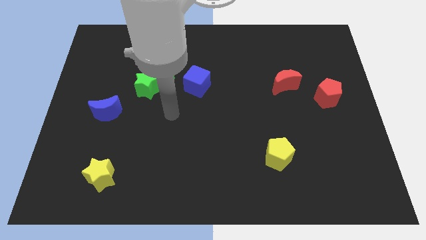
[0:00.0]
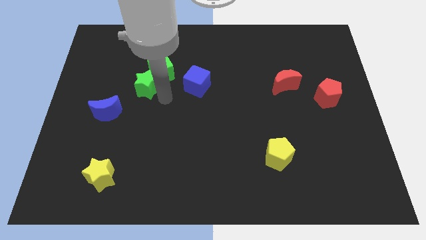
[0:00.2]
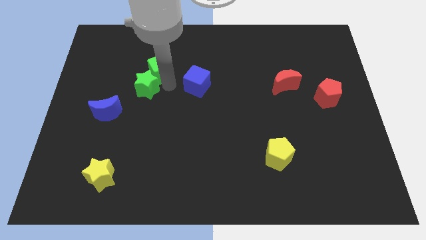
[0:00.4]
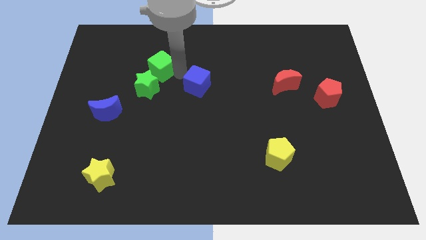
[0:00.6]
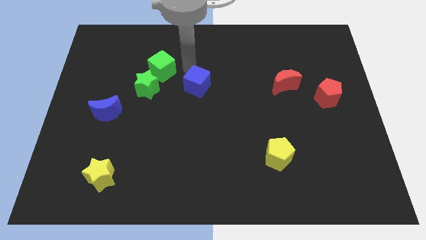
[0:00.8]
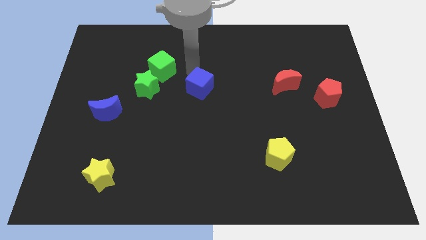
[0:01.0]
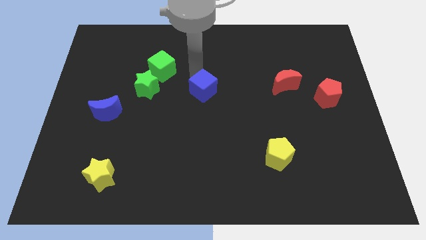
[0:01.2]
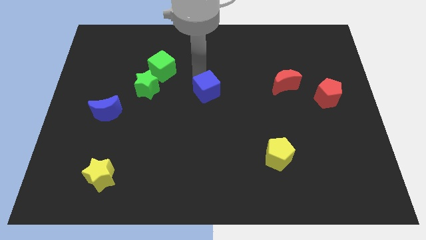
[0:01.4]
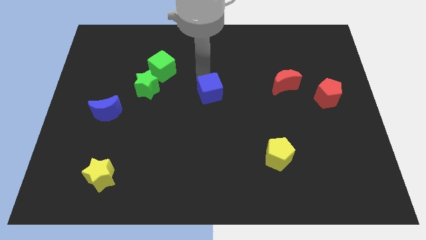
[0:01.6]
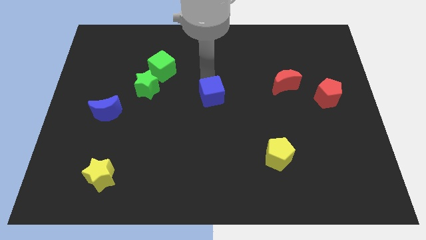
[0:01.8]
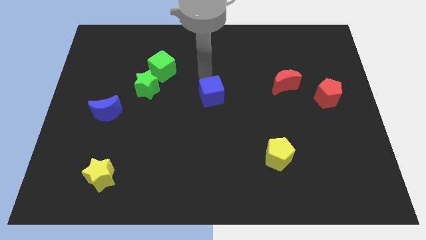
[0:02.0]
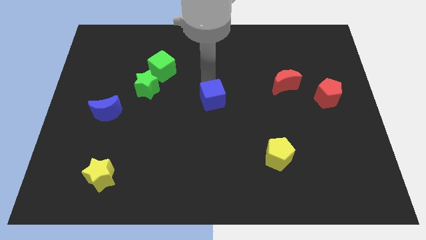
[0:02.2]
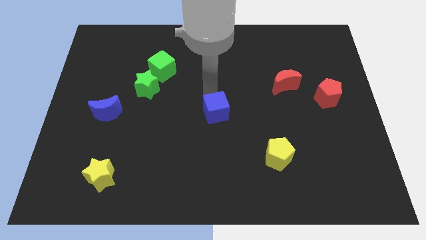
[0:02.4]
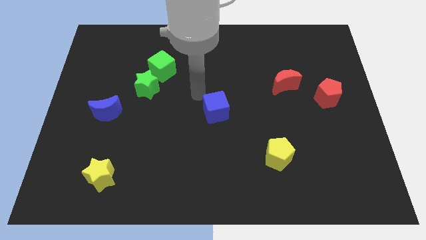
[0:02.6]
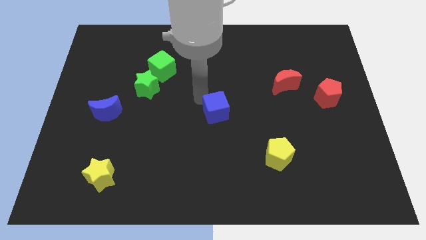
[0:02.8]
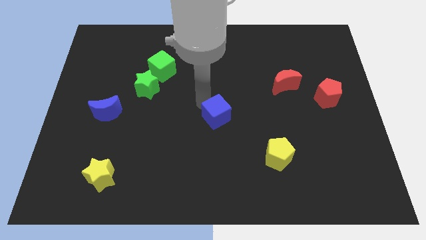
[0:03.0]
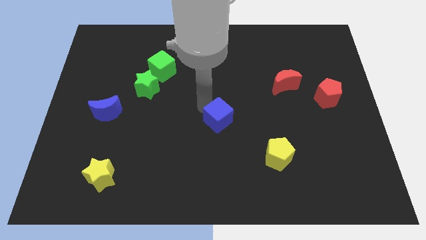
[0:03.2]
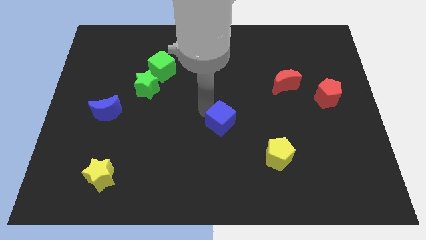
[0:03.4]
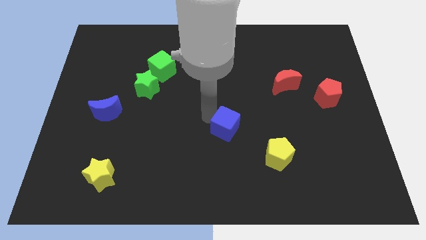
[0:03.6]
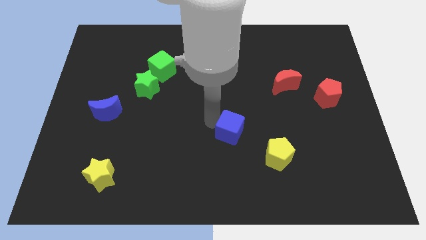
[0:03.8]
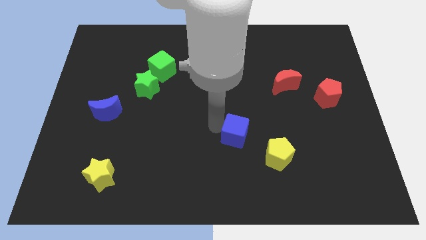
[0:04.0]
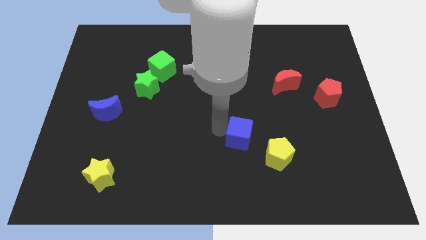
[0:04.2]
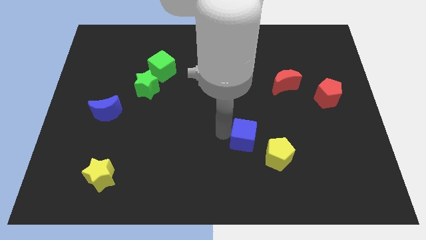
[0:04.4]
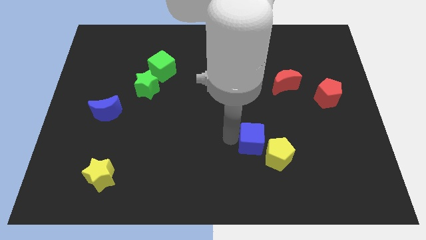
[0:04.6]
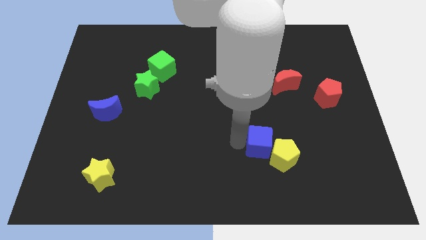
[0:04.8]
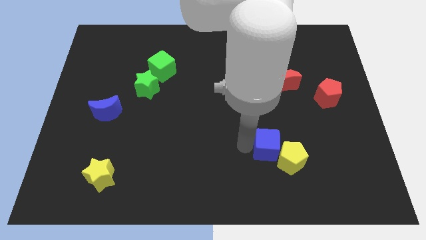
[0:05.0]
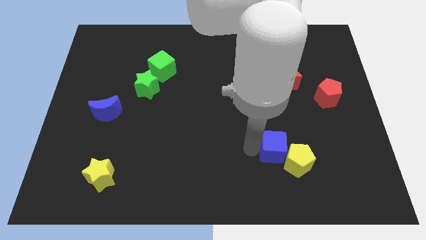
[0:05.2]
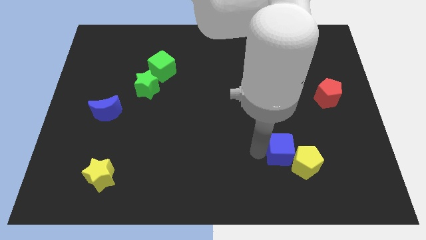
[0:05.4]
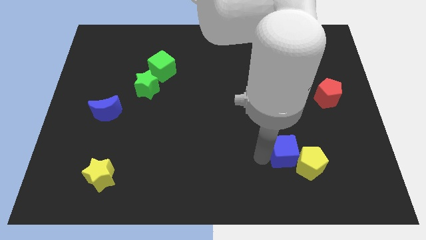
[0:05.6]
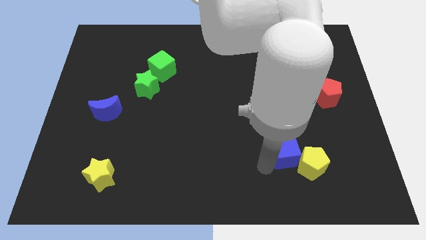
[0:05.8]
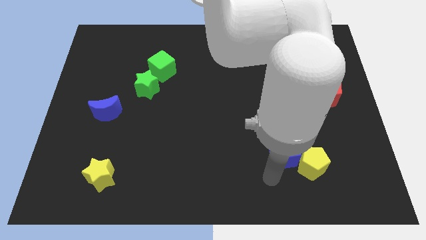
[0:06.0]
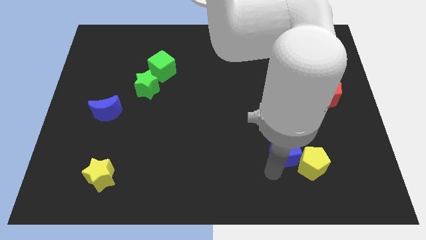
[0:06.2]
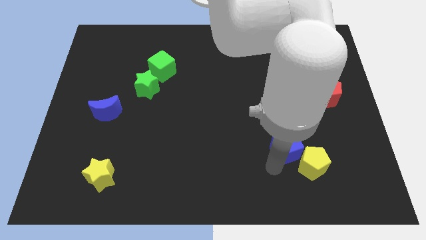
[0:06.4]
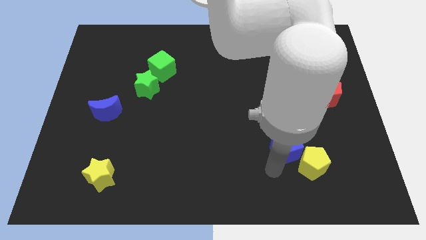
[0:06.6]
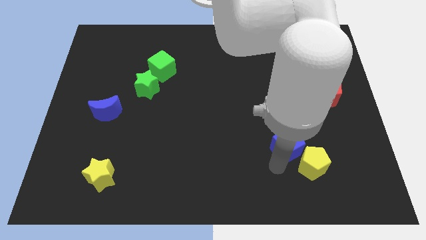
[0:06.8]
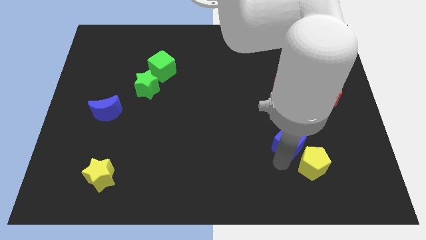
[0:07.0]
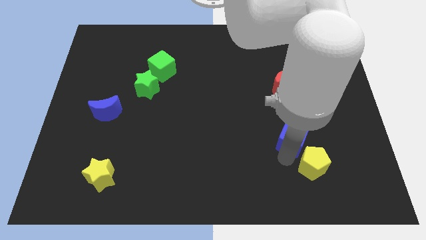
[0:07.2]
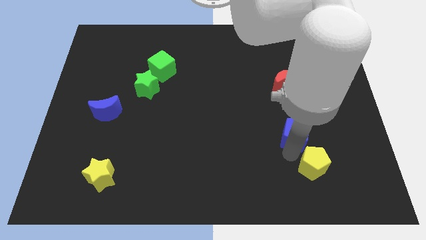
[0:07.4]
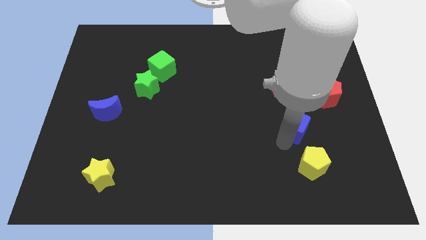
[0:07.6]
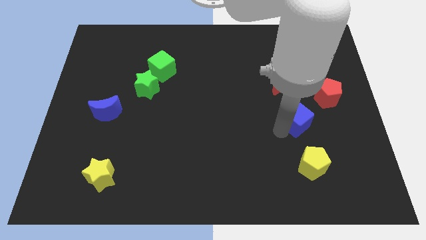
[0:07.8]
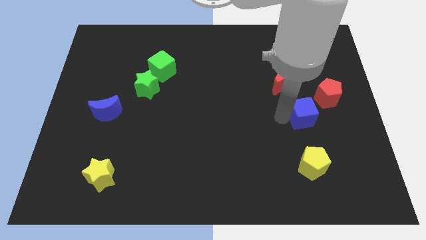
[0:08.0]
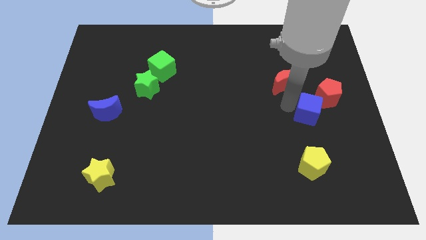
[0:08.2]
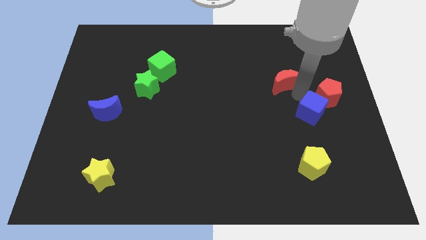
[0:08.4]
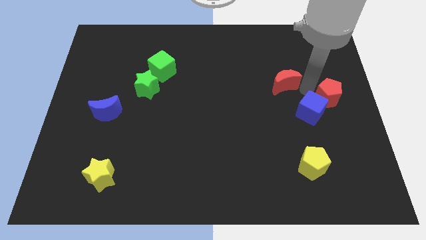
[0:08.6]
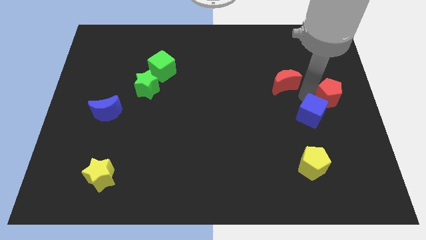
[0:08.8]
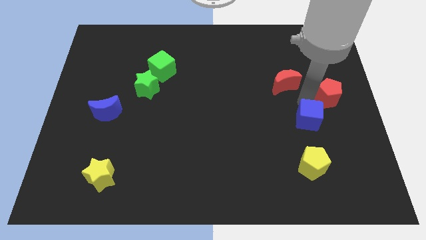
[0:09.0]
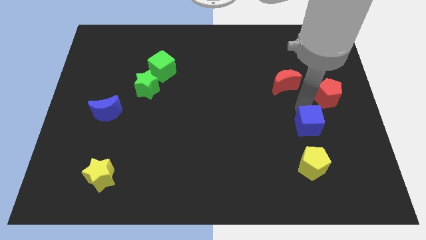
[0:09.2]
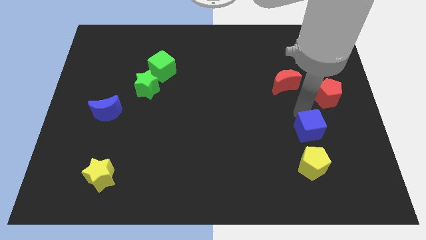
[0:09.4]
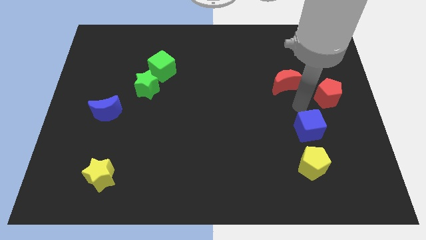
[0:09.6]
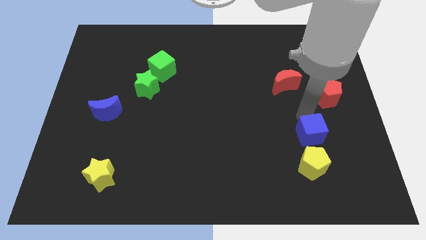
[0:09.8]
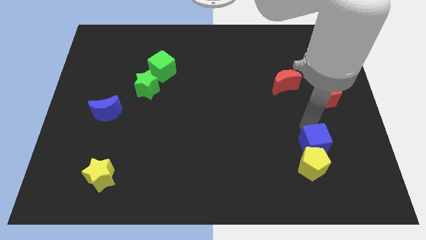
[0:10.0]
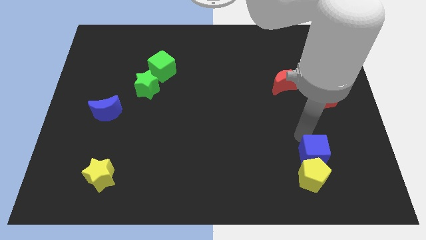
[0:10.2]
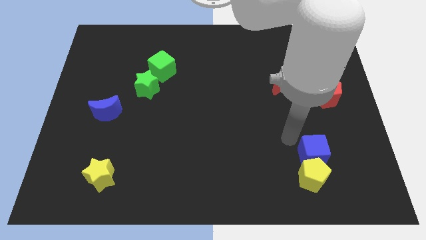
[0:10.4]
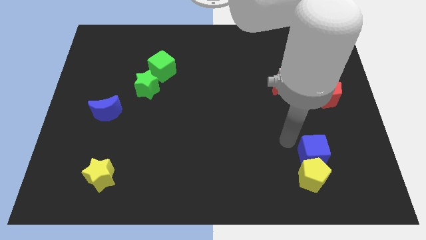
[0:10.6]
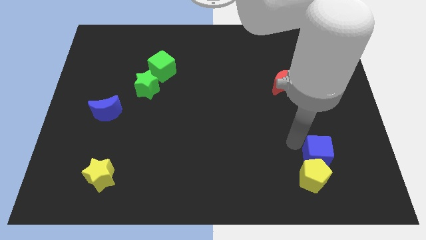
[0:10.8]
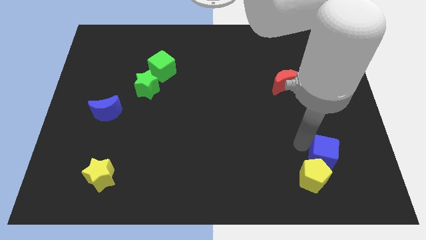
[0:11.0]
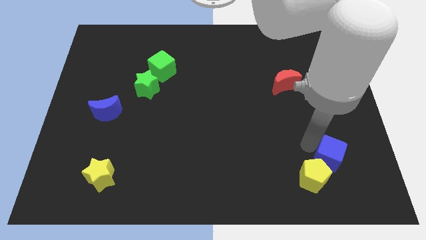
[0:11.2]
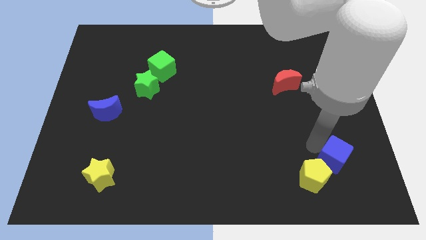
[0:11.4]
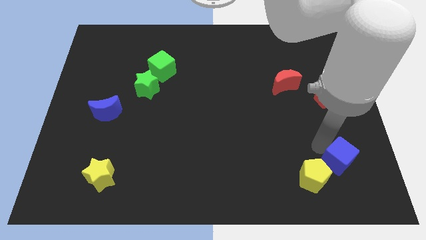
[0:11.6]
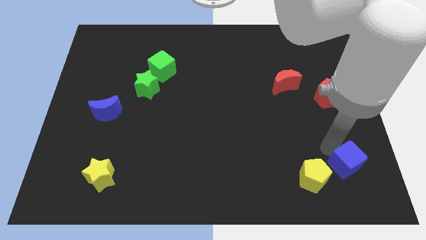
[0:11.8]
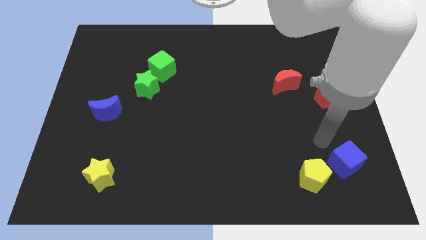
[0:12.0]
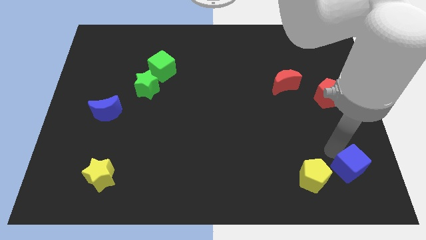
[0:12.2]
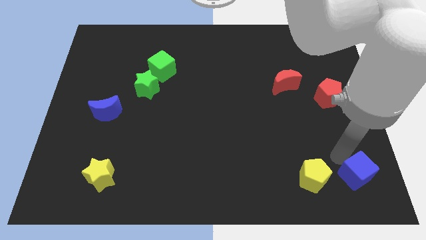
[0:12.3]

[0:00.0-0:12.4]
slide the blue cube to the bottom right of the board
